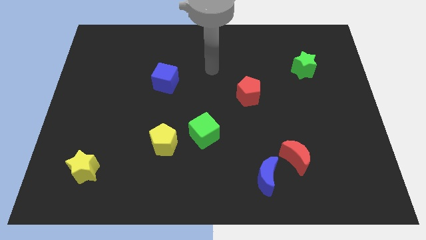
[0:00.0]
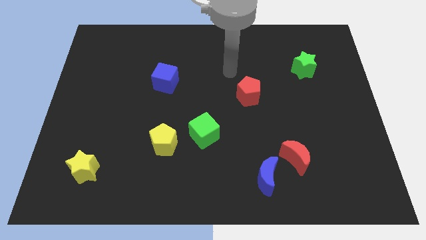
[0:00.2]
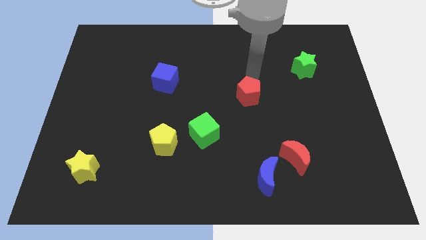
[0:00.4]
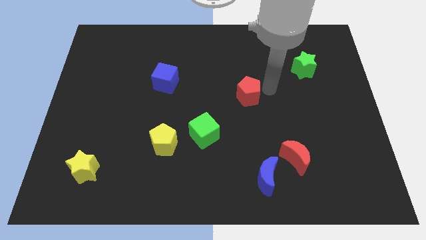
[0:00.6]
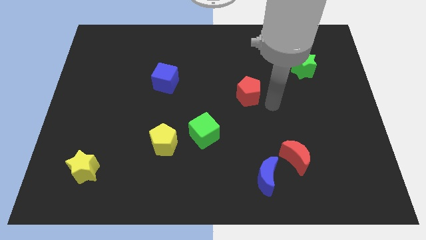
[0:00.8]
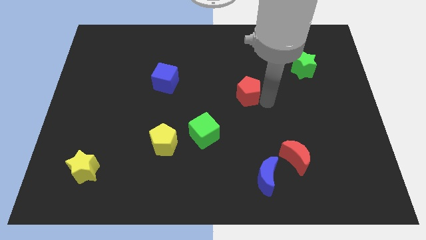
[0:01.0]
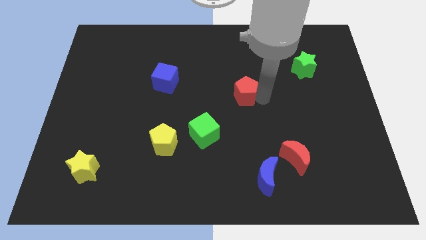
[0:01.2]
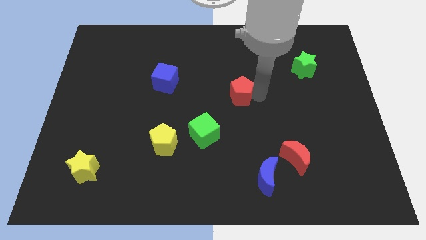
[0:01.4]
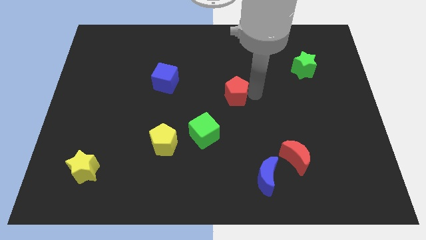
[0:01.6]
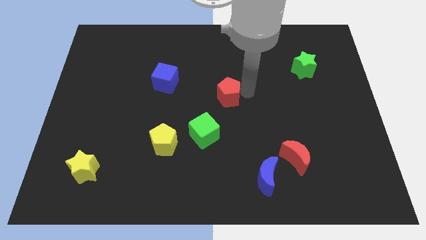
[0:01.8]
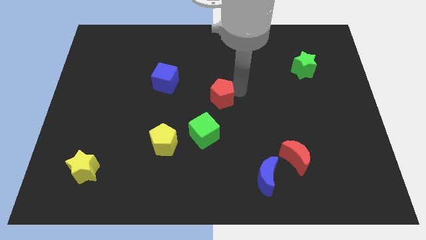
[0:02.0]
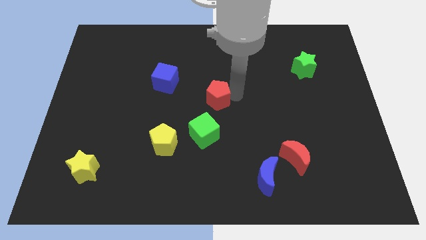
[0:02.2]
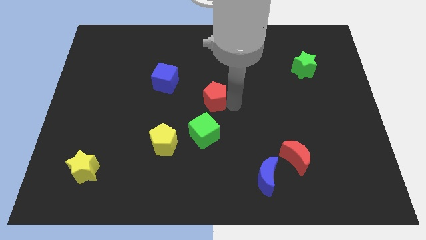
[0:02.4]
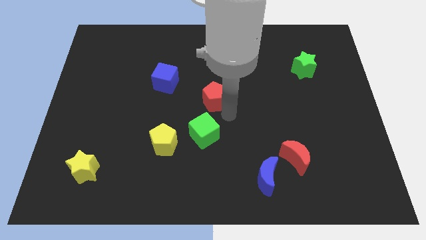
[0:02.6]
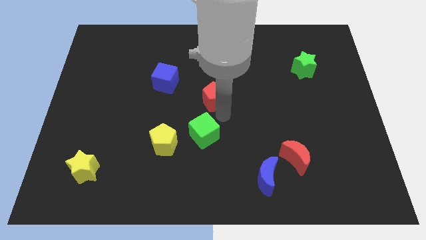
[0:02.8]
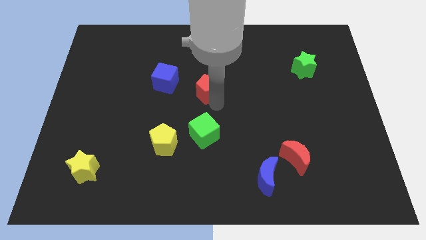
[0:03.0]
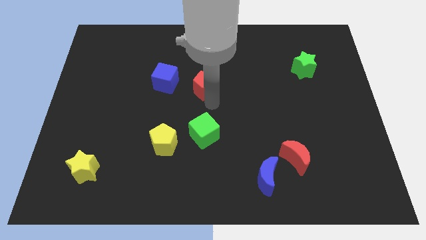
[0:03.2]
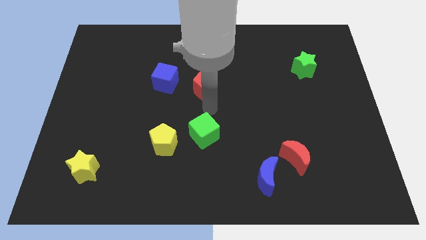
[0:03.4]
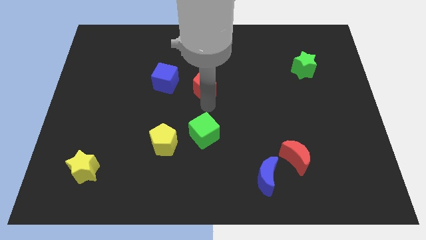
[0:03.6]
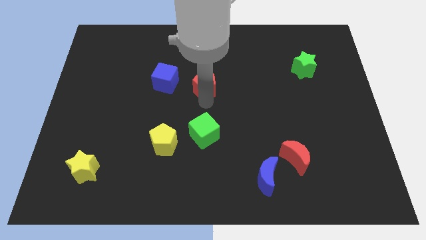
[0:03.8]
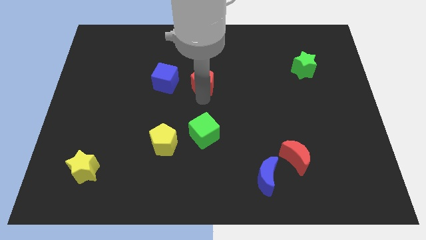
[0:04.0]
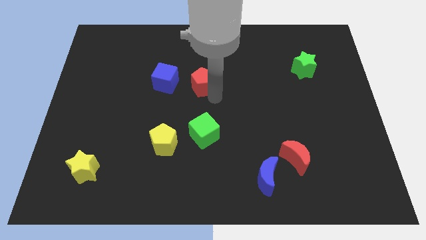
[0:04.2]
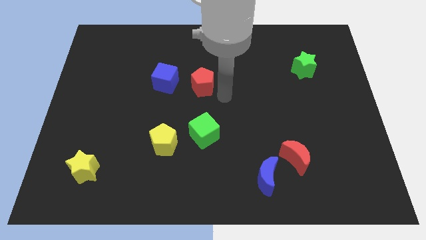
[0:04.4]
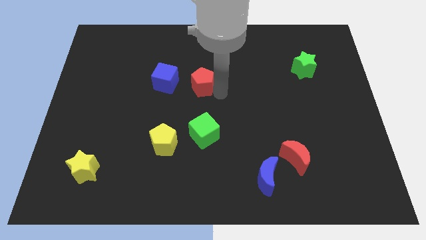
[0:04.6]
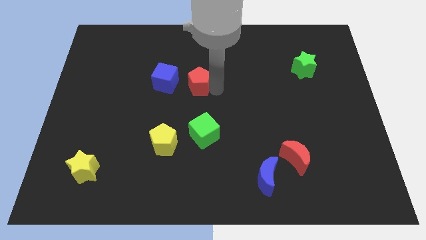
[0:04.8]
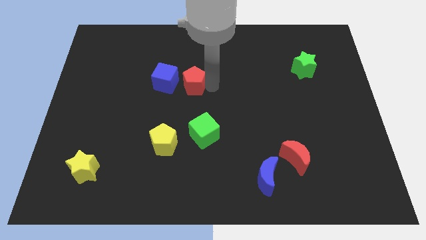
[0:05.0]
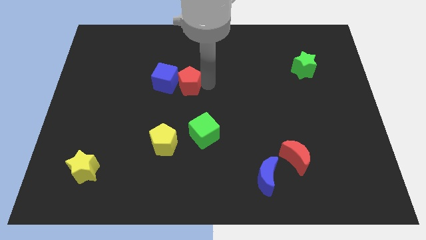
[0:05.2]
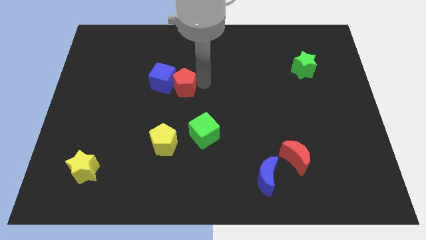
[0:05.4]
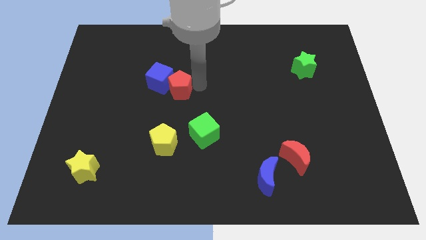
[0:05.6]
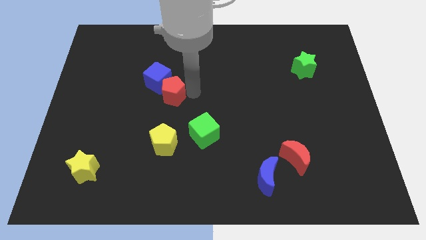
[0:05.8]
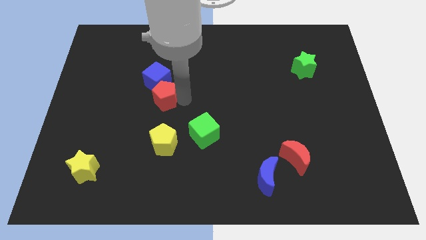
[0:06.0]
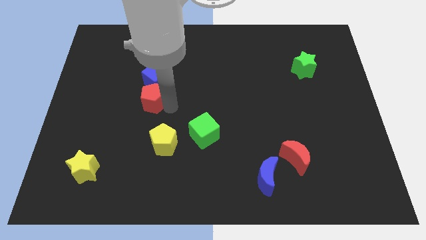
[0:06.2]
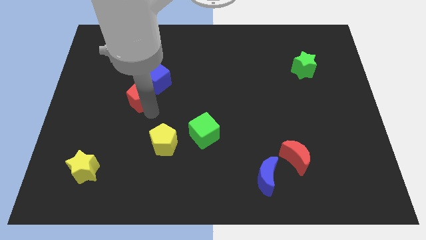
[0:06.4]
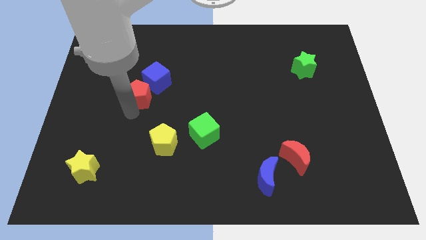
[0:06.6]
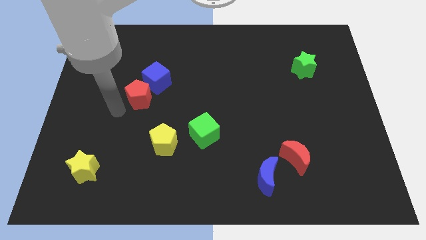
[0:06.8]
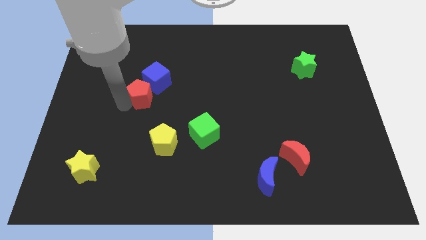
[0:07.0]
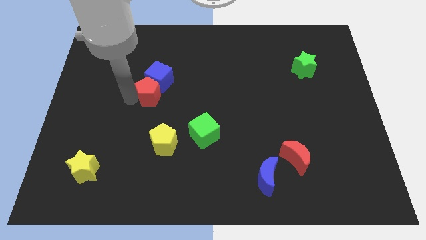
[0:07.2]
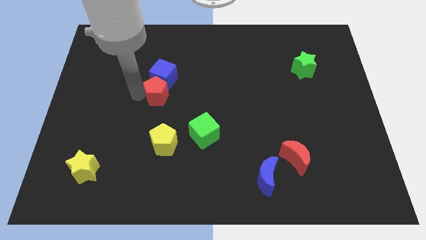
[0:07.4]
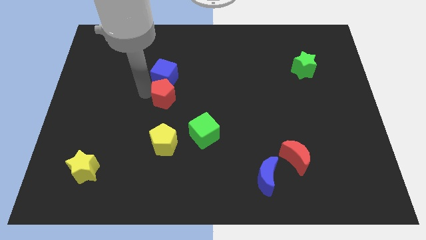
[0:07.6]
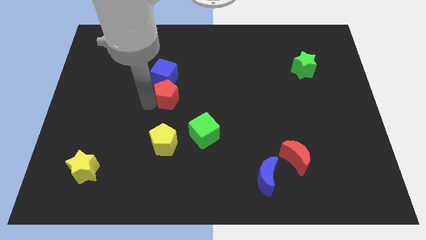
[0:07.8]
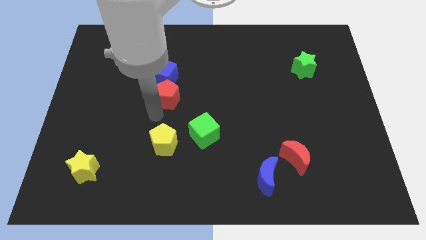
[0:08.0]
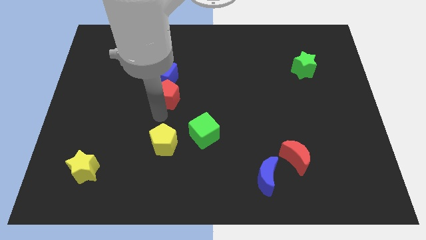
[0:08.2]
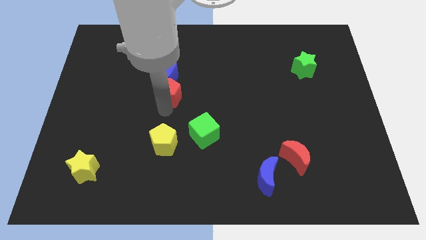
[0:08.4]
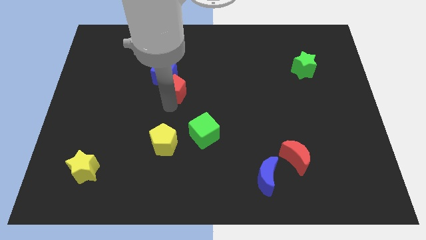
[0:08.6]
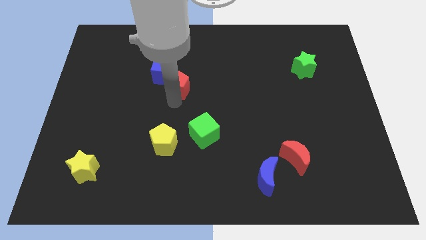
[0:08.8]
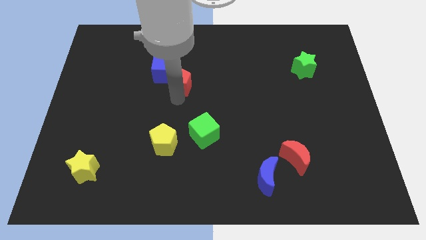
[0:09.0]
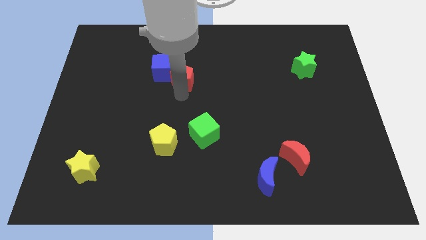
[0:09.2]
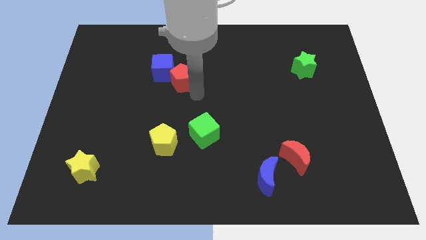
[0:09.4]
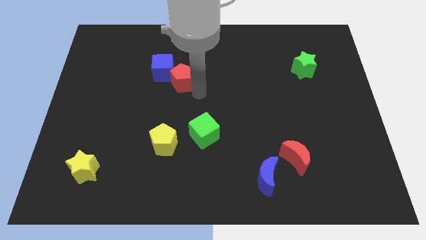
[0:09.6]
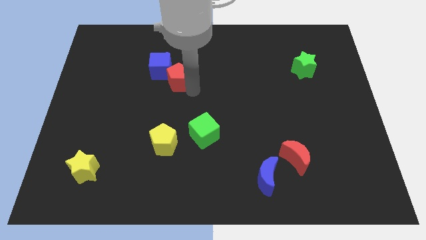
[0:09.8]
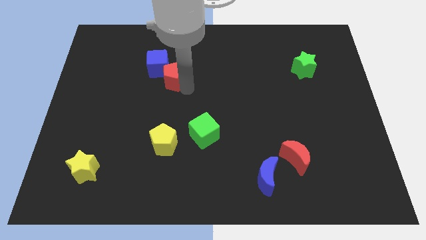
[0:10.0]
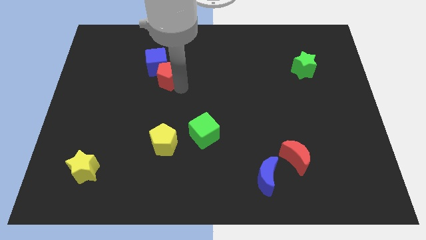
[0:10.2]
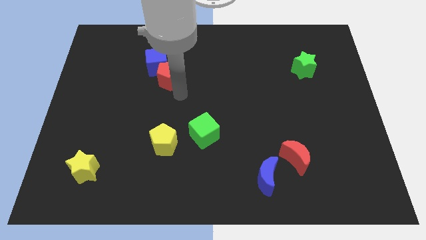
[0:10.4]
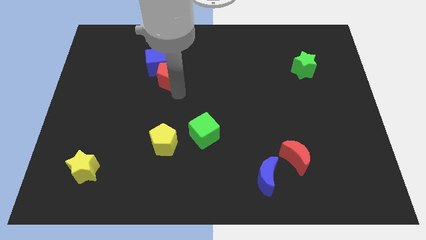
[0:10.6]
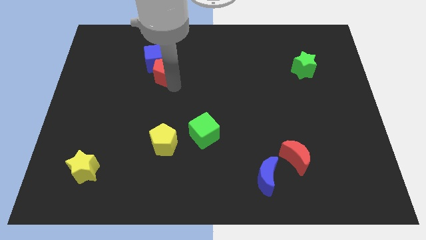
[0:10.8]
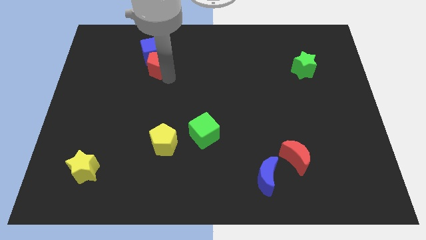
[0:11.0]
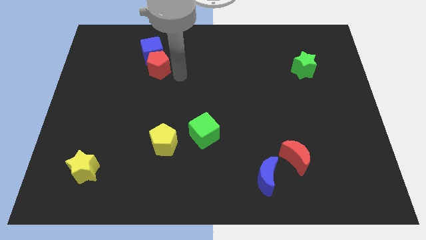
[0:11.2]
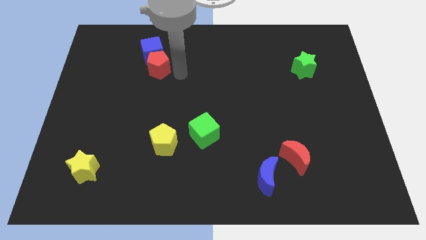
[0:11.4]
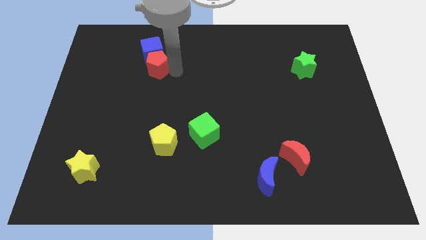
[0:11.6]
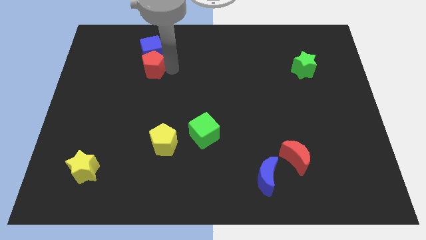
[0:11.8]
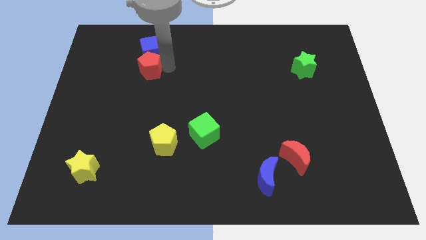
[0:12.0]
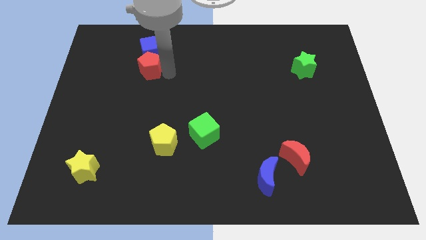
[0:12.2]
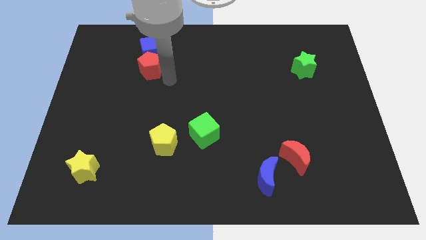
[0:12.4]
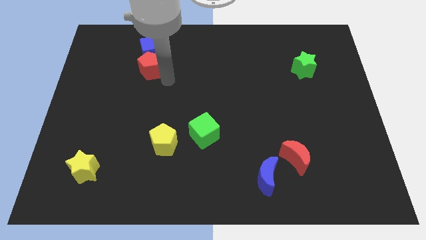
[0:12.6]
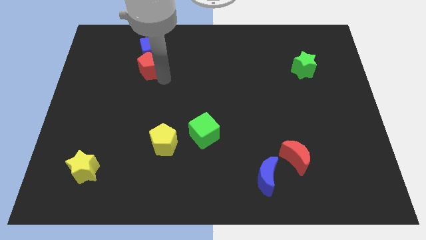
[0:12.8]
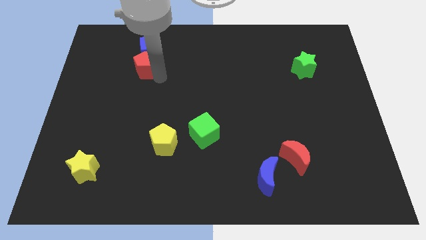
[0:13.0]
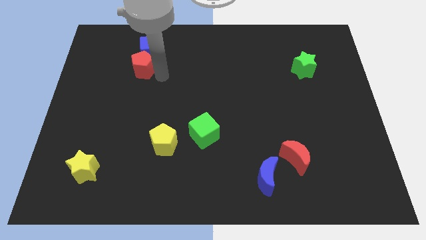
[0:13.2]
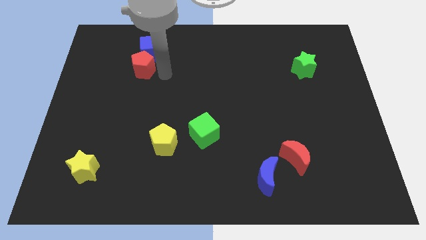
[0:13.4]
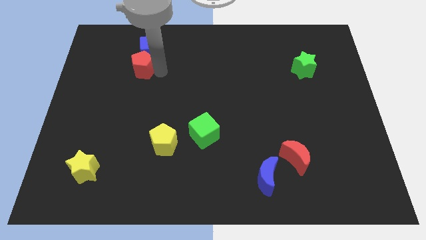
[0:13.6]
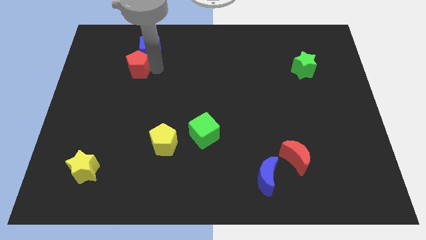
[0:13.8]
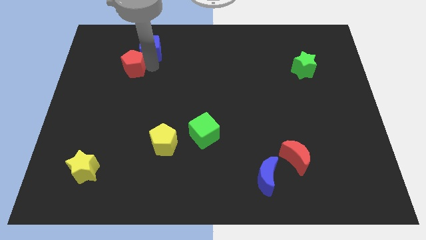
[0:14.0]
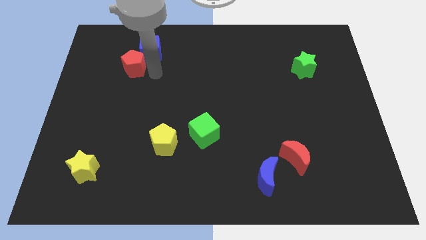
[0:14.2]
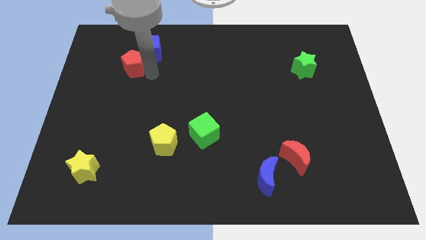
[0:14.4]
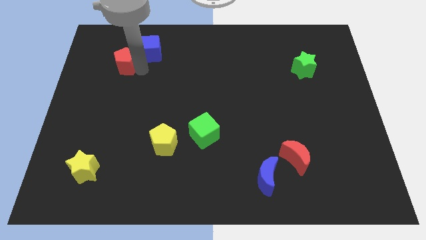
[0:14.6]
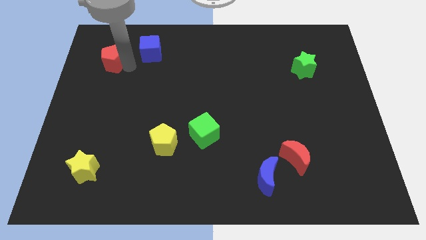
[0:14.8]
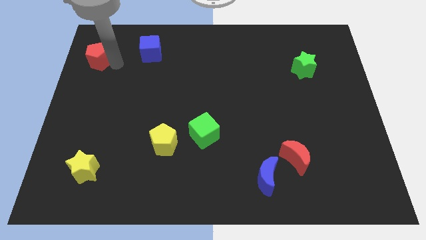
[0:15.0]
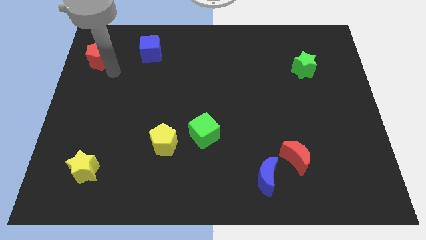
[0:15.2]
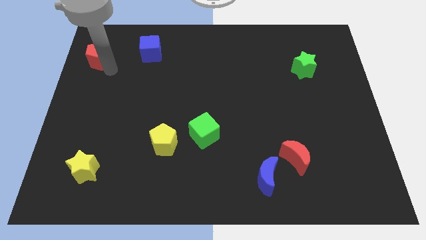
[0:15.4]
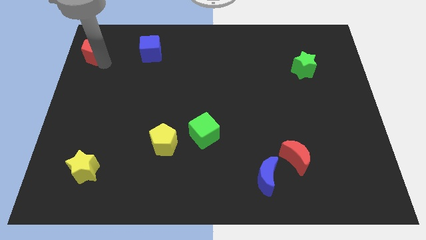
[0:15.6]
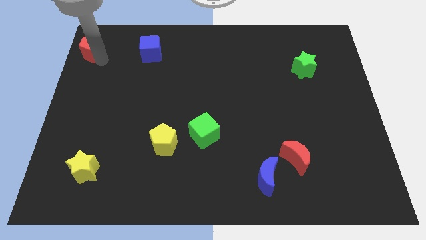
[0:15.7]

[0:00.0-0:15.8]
put the red pentagon to the top left corner
